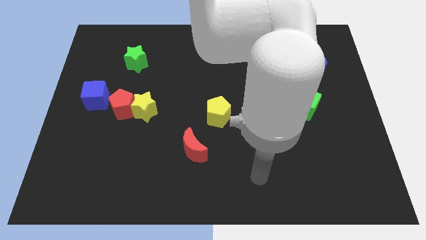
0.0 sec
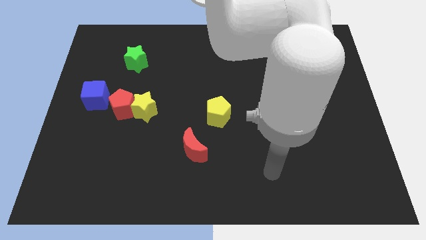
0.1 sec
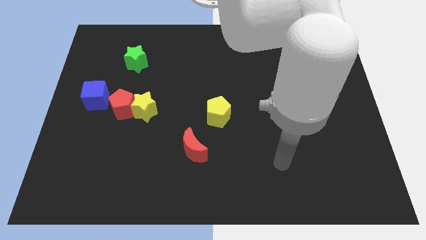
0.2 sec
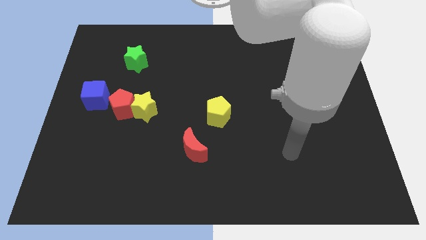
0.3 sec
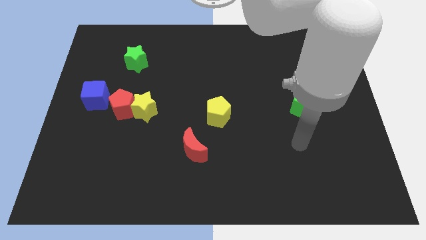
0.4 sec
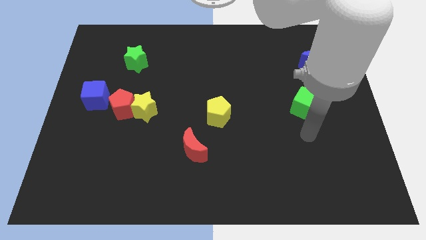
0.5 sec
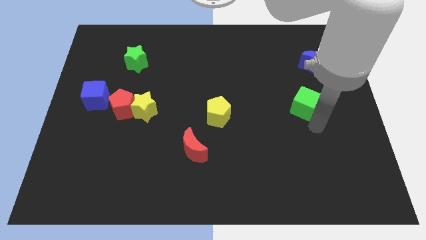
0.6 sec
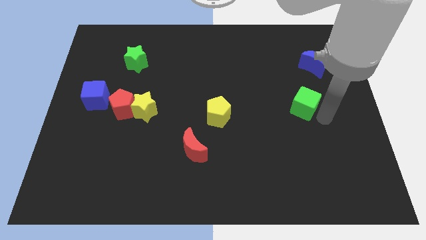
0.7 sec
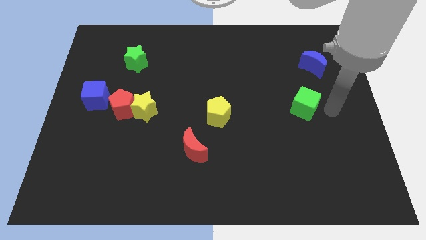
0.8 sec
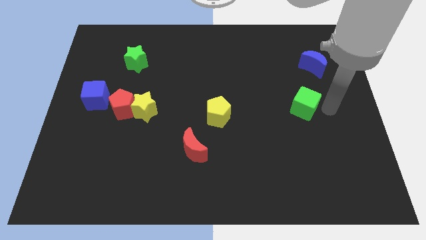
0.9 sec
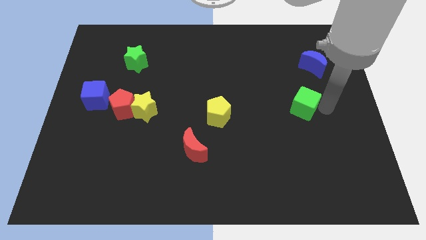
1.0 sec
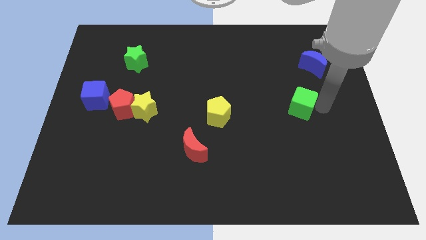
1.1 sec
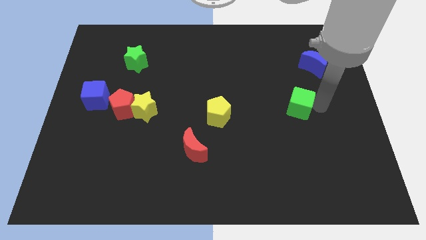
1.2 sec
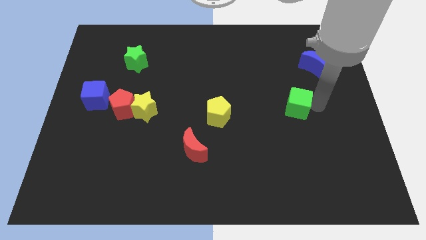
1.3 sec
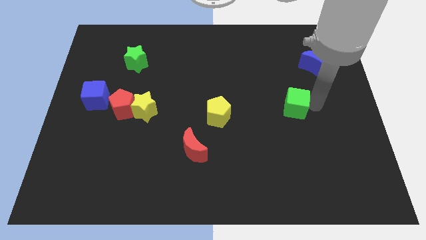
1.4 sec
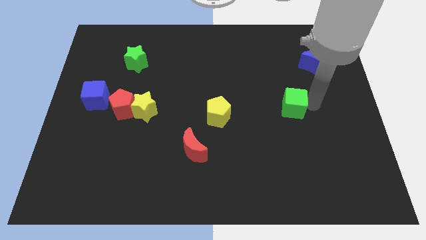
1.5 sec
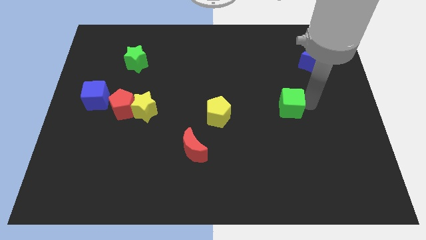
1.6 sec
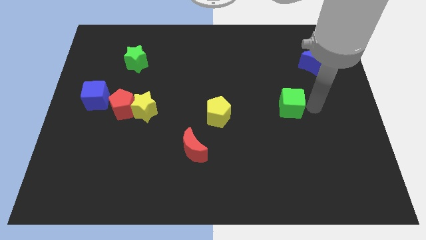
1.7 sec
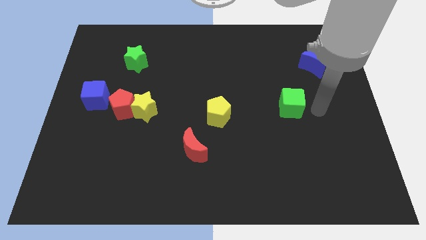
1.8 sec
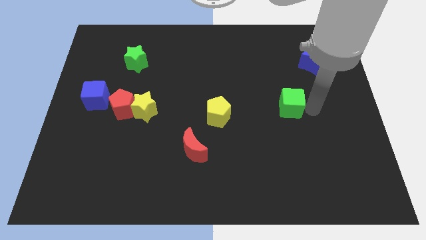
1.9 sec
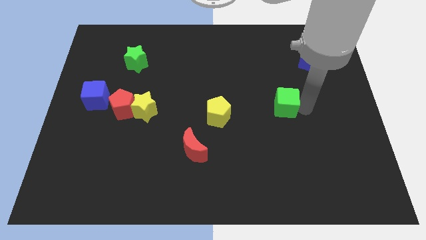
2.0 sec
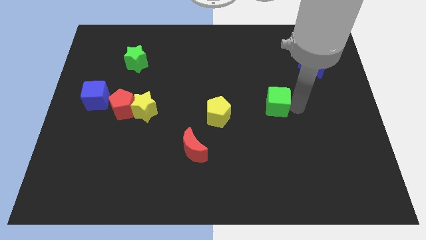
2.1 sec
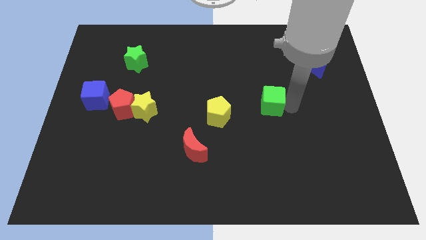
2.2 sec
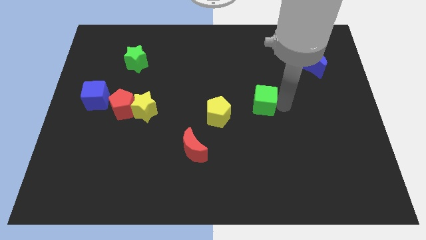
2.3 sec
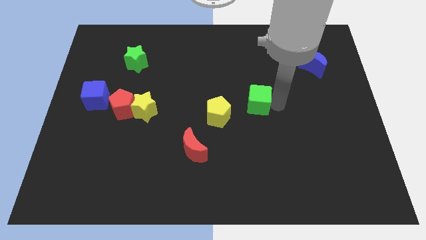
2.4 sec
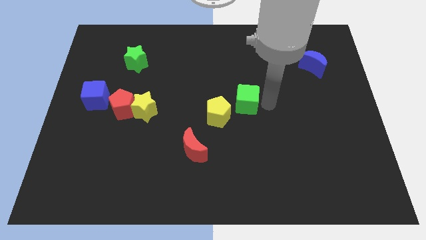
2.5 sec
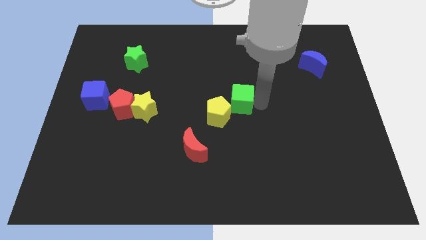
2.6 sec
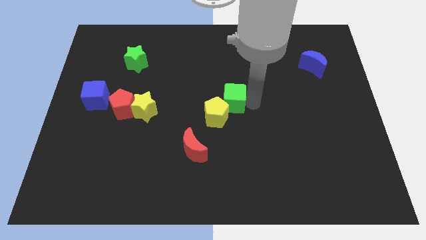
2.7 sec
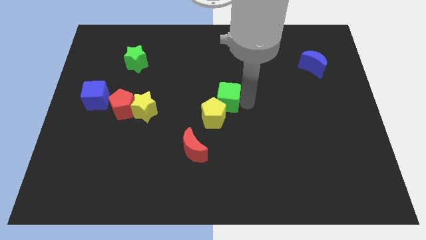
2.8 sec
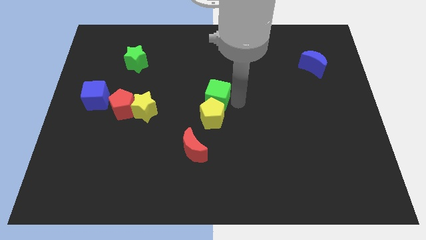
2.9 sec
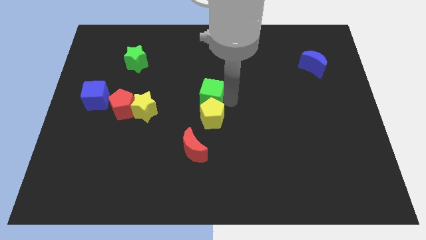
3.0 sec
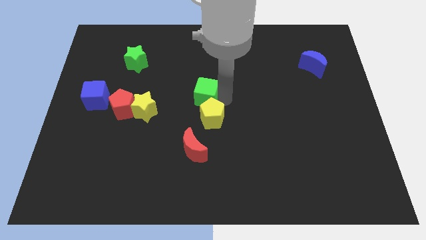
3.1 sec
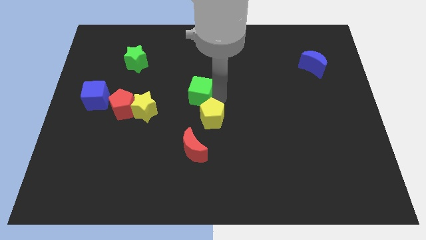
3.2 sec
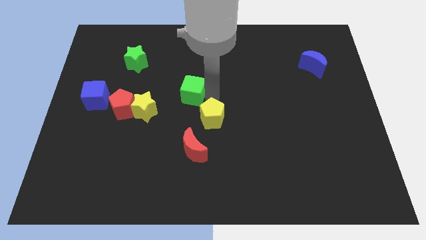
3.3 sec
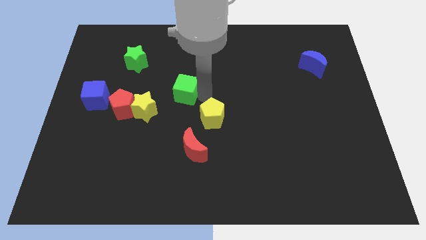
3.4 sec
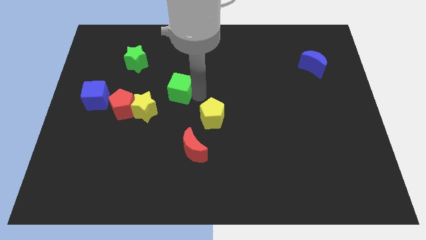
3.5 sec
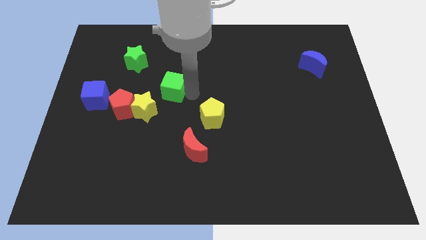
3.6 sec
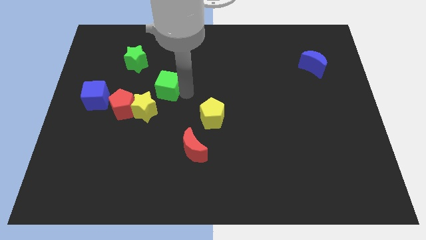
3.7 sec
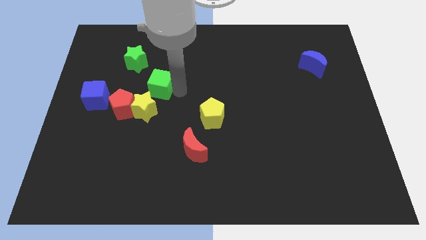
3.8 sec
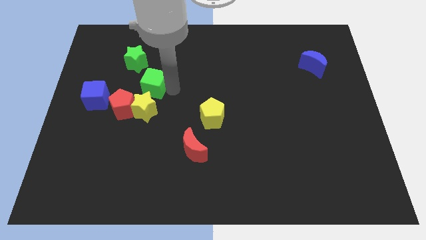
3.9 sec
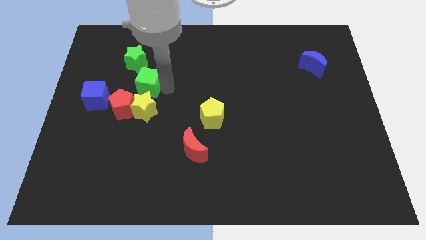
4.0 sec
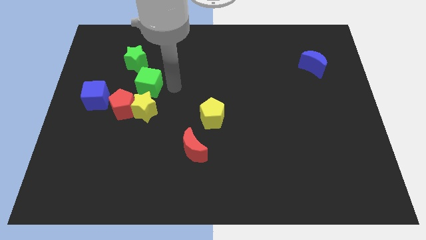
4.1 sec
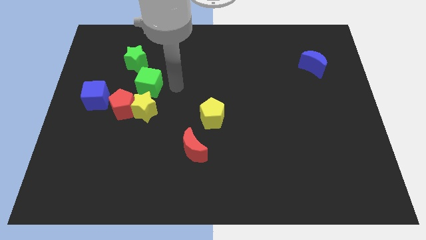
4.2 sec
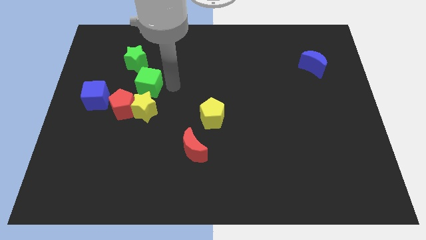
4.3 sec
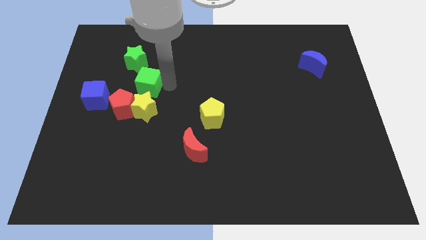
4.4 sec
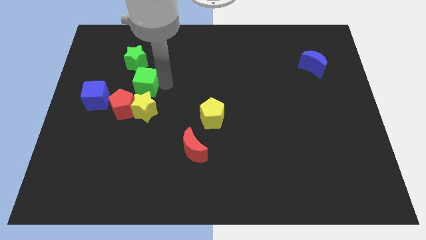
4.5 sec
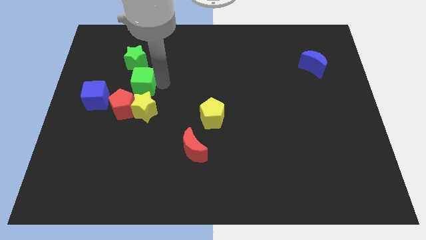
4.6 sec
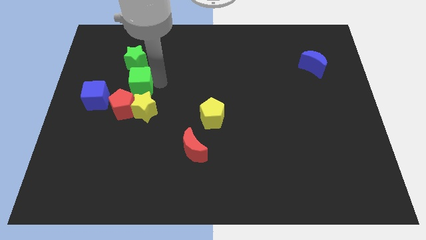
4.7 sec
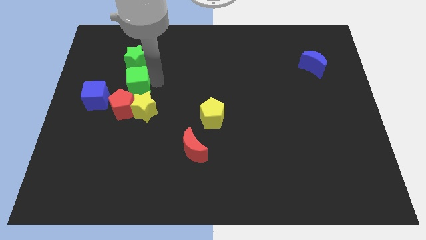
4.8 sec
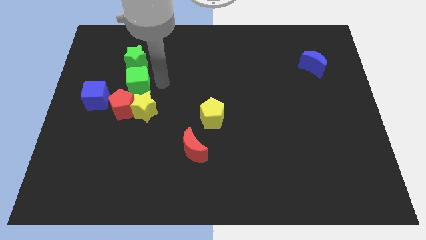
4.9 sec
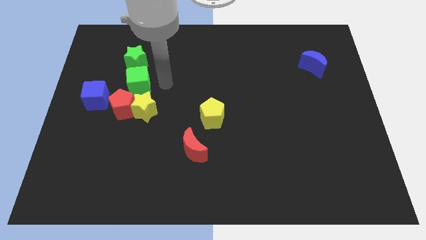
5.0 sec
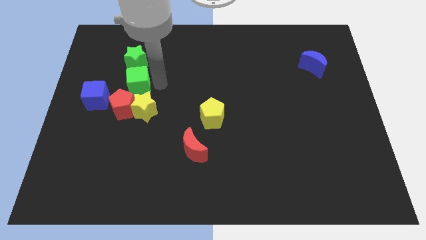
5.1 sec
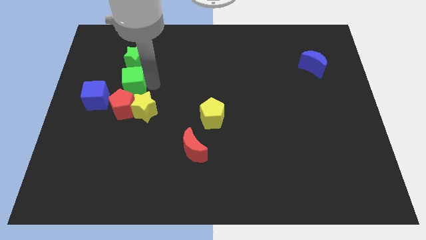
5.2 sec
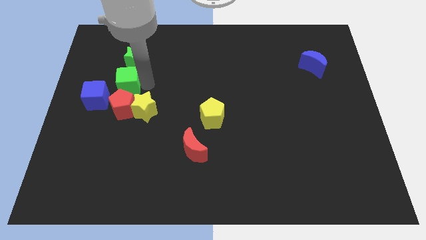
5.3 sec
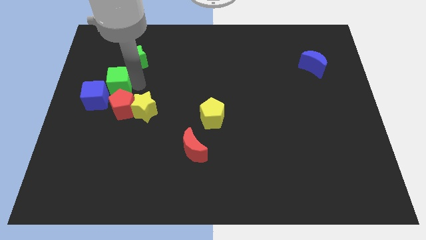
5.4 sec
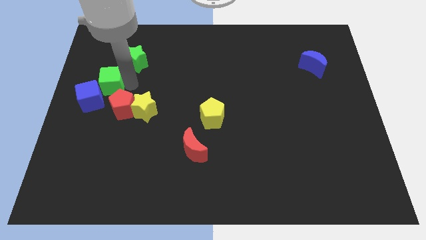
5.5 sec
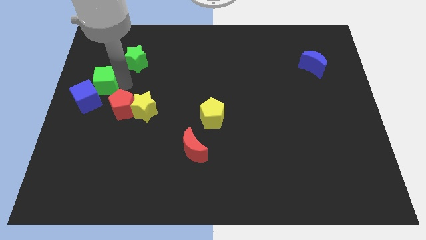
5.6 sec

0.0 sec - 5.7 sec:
slide the green cube to the center left

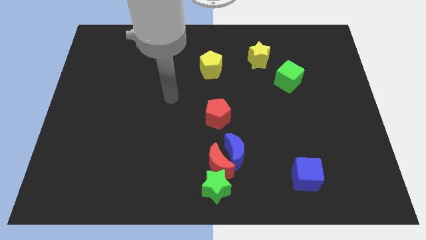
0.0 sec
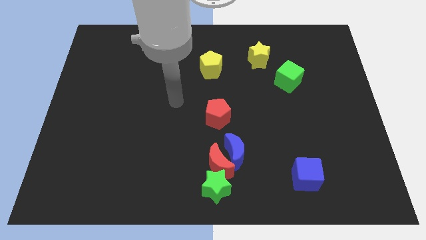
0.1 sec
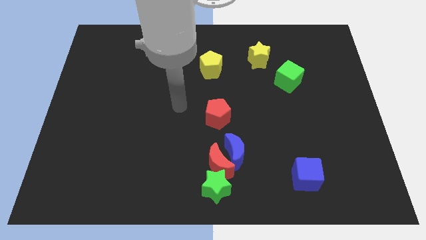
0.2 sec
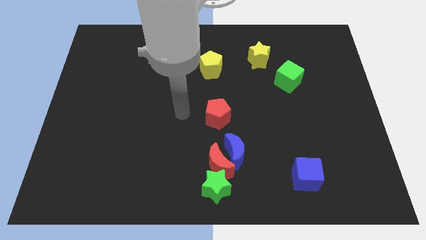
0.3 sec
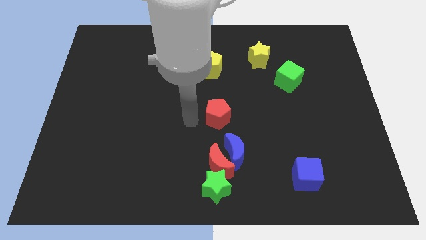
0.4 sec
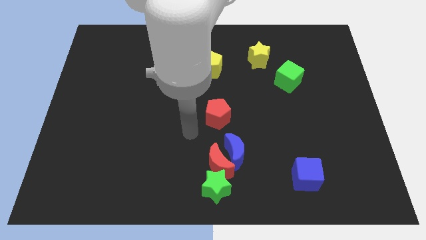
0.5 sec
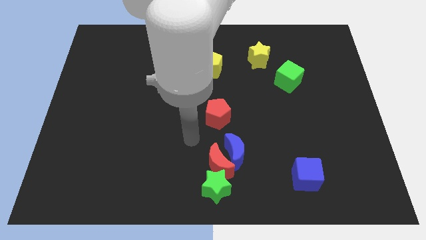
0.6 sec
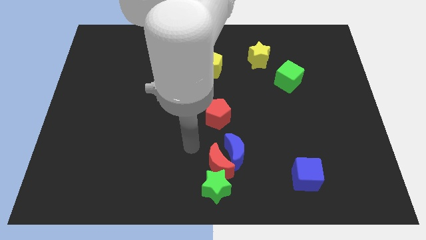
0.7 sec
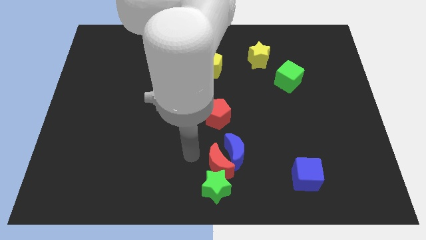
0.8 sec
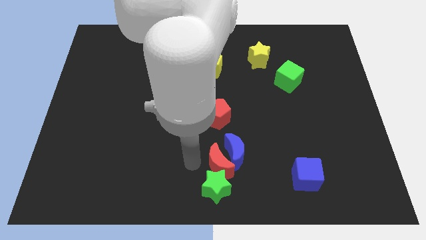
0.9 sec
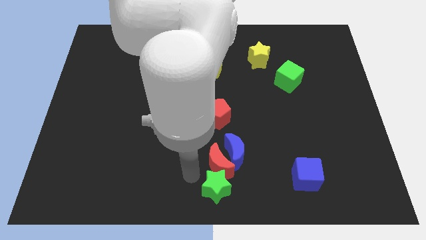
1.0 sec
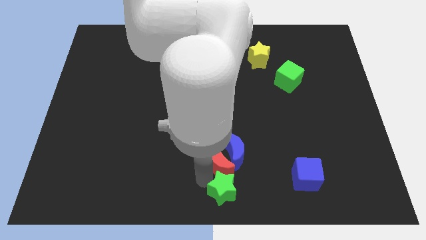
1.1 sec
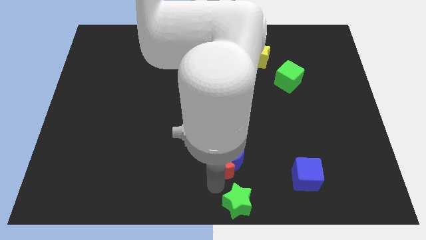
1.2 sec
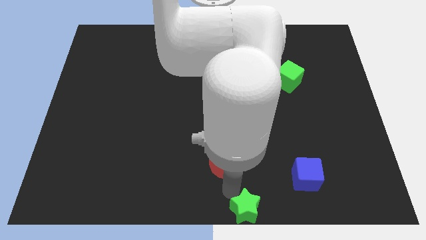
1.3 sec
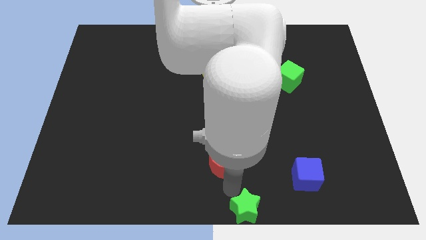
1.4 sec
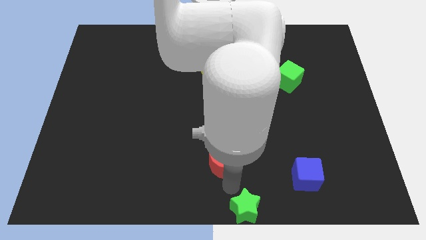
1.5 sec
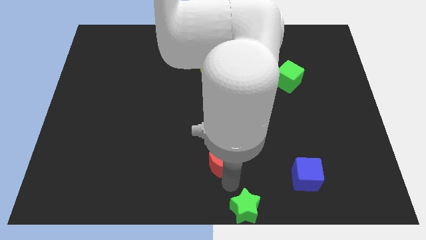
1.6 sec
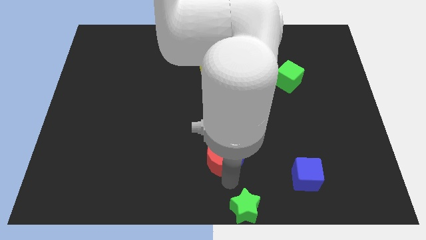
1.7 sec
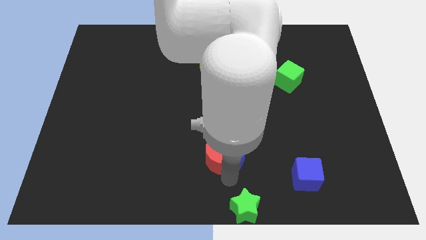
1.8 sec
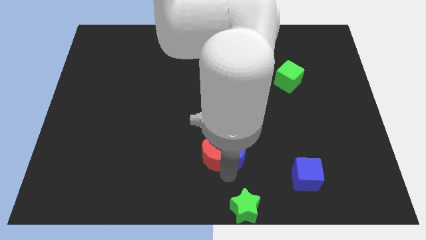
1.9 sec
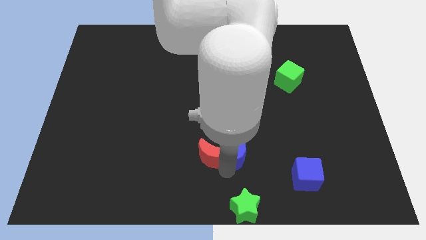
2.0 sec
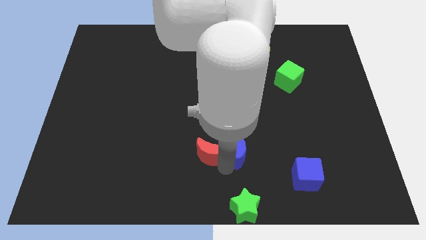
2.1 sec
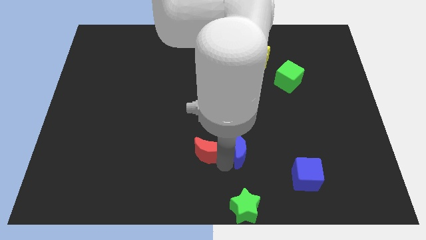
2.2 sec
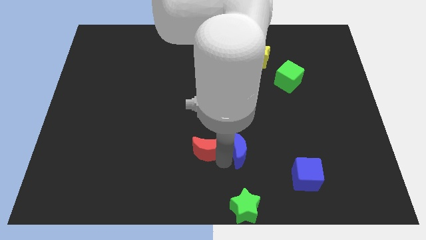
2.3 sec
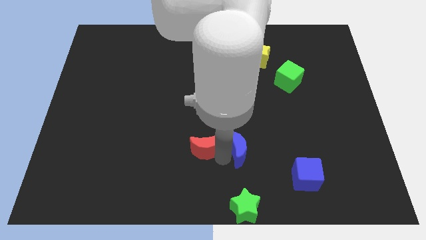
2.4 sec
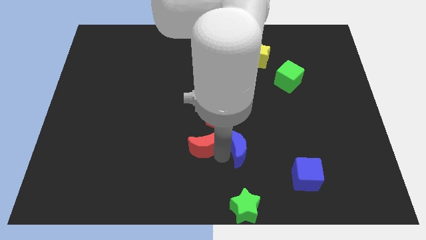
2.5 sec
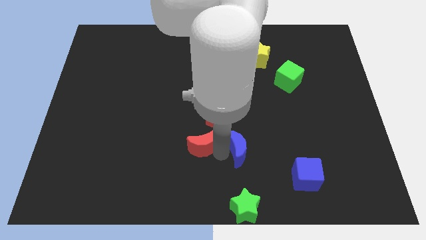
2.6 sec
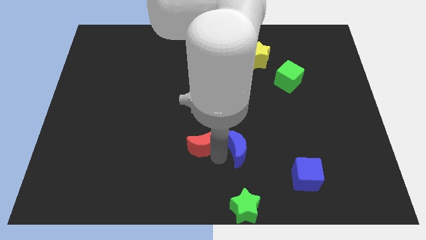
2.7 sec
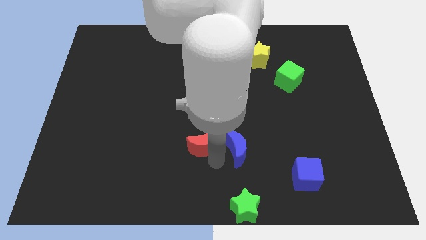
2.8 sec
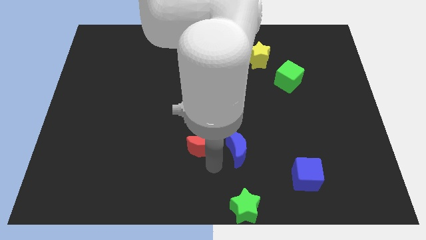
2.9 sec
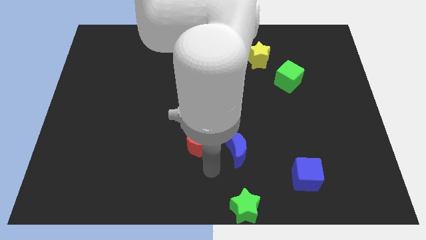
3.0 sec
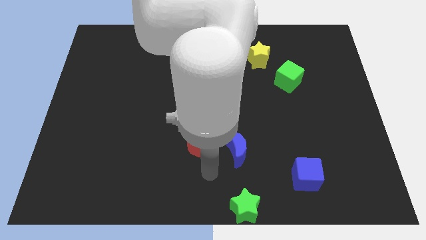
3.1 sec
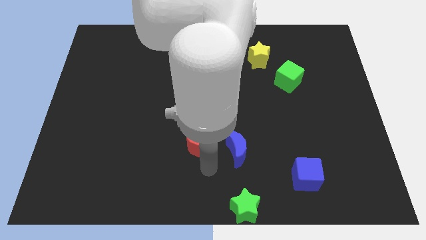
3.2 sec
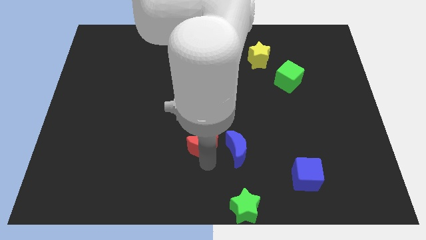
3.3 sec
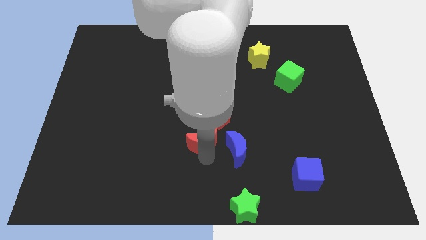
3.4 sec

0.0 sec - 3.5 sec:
move the red moon to the center of the board
